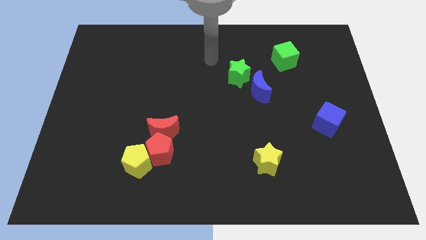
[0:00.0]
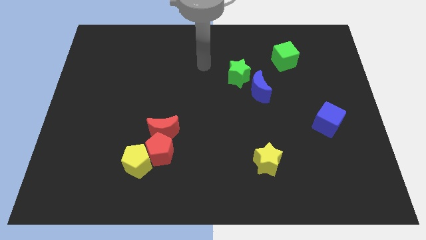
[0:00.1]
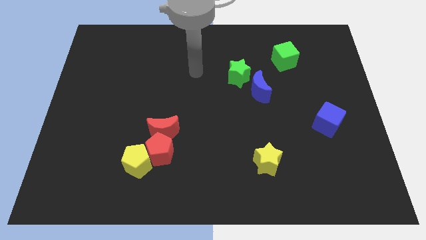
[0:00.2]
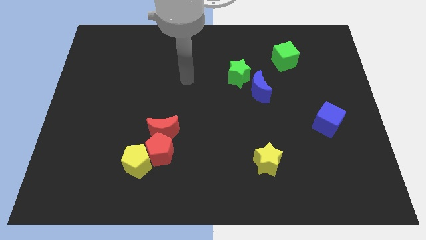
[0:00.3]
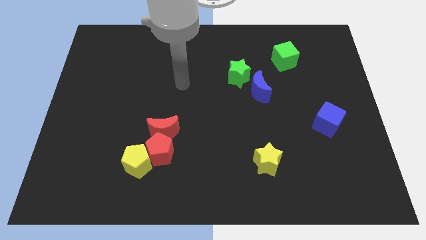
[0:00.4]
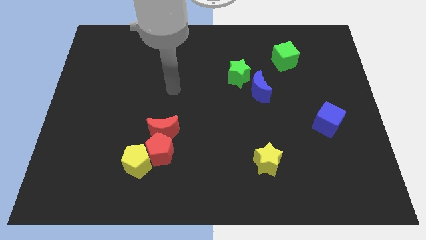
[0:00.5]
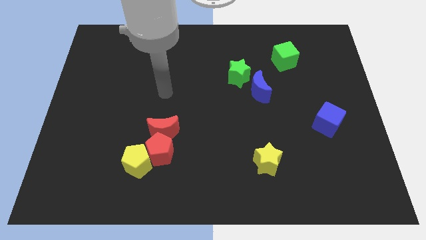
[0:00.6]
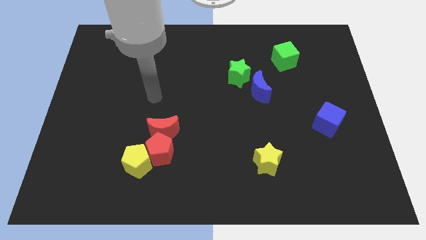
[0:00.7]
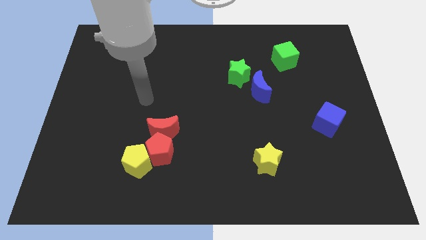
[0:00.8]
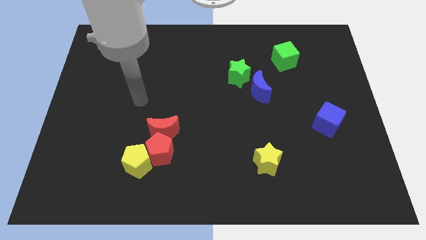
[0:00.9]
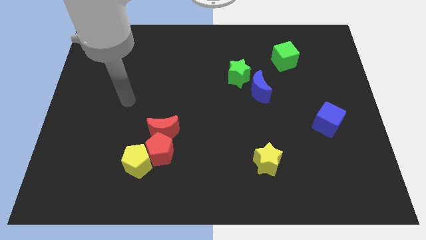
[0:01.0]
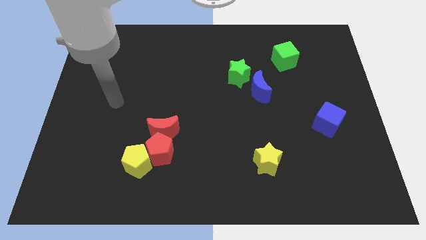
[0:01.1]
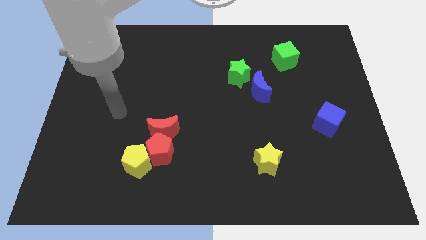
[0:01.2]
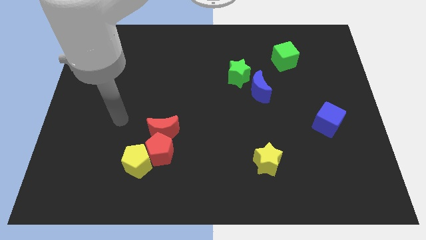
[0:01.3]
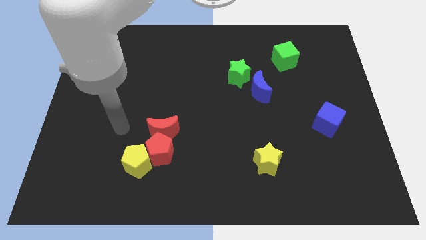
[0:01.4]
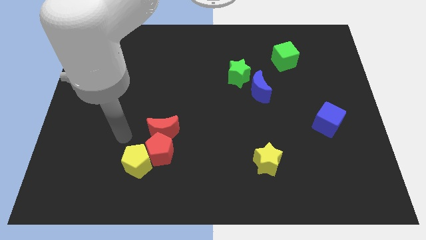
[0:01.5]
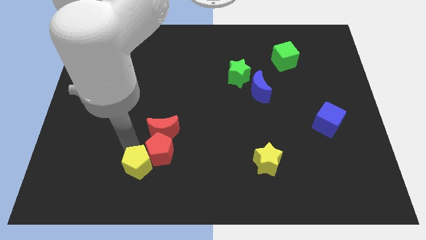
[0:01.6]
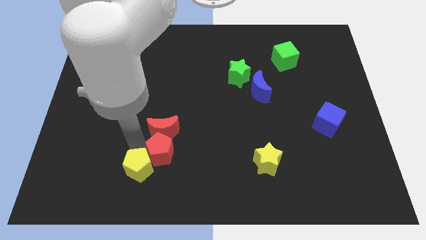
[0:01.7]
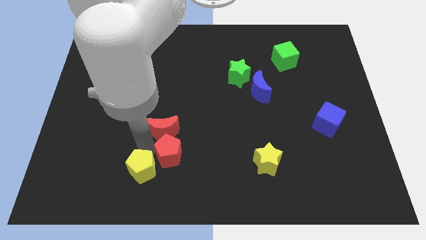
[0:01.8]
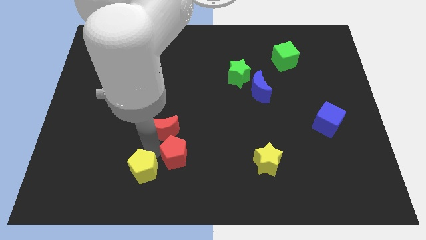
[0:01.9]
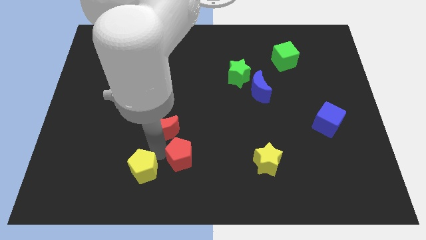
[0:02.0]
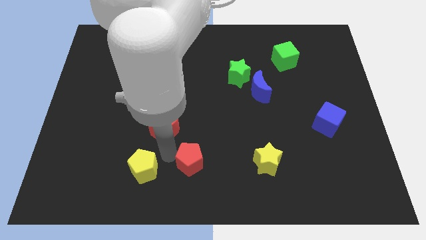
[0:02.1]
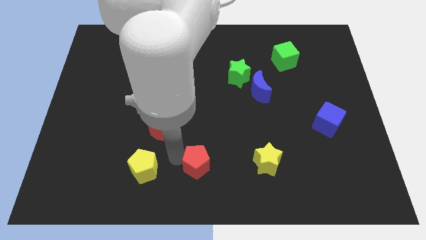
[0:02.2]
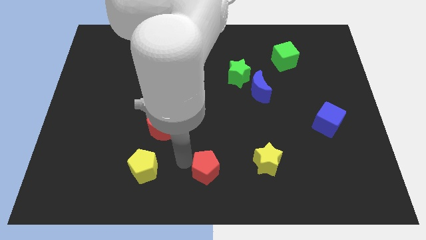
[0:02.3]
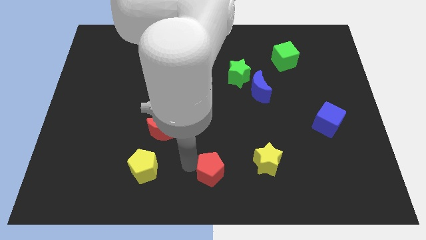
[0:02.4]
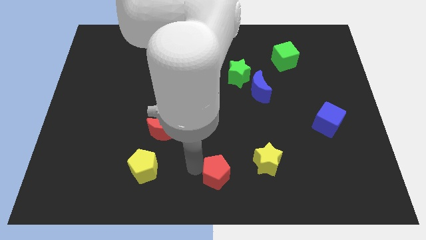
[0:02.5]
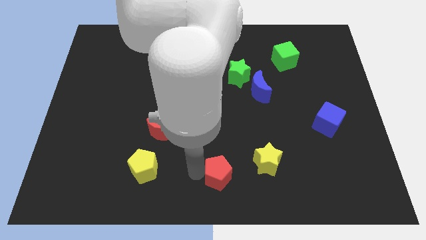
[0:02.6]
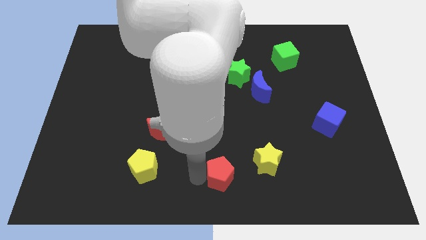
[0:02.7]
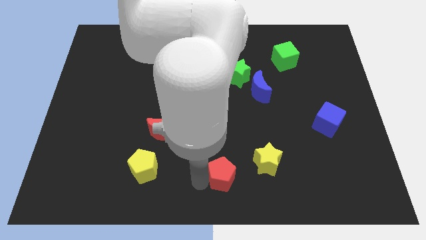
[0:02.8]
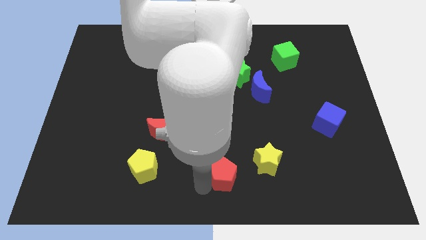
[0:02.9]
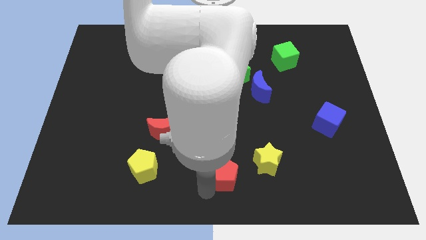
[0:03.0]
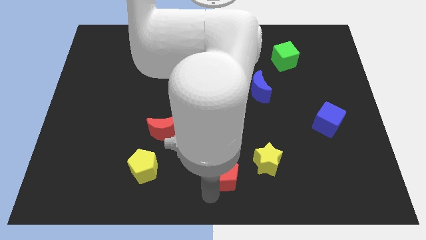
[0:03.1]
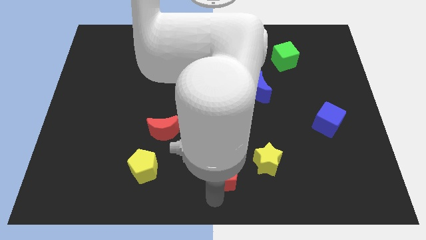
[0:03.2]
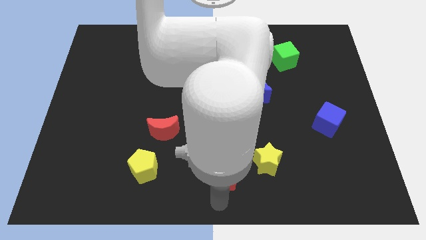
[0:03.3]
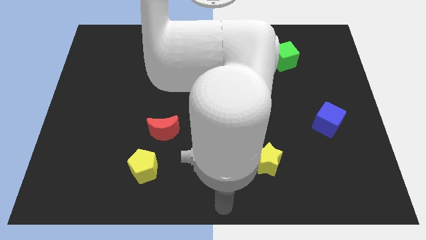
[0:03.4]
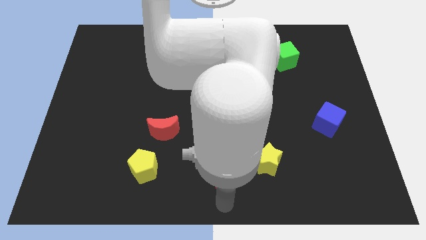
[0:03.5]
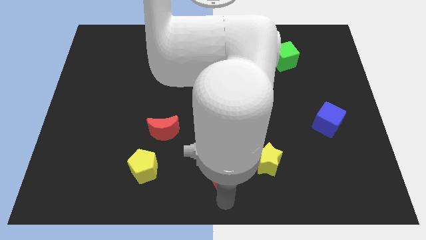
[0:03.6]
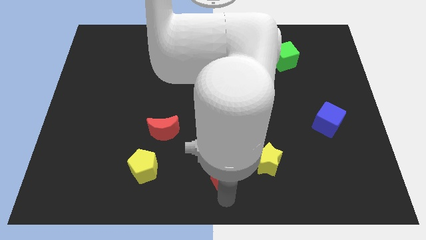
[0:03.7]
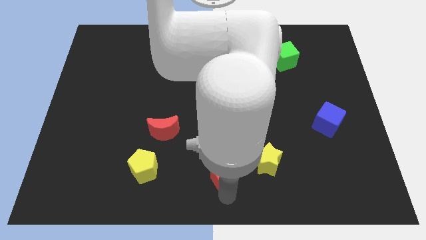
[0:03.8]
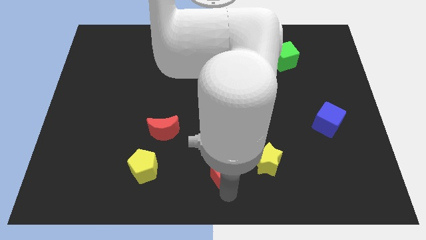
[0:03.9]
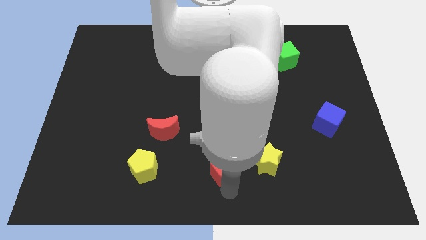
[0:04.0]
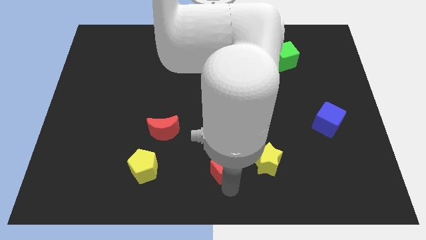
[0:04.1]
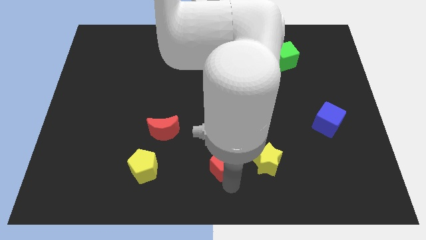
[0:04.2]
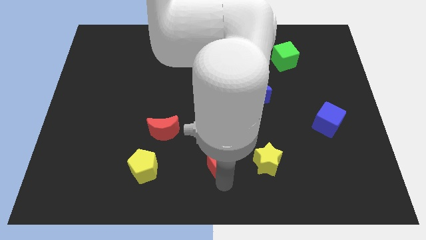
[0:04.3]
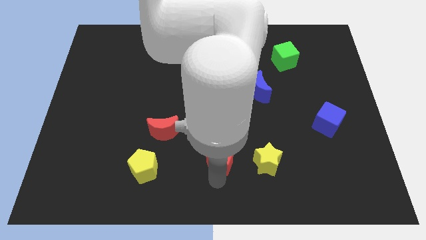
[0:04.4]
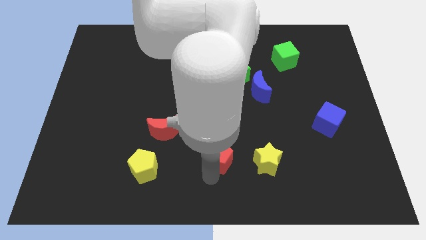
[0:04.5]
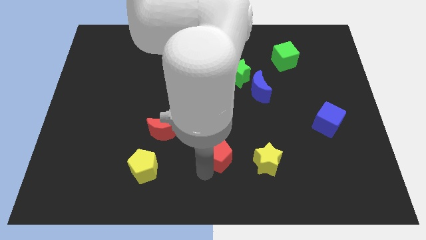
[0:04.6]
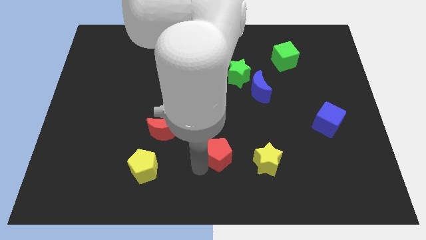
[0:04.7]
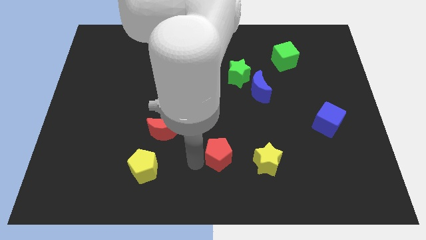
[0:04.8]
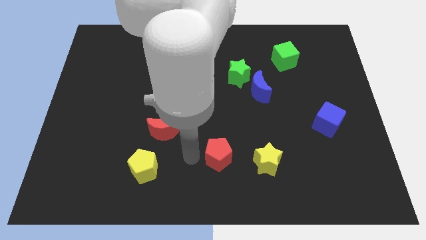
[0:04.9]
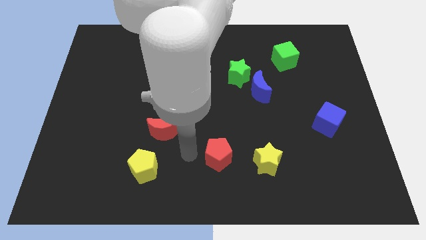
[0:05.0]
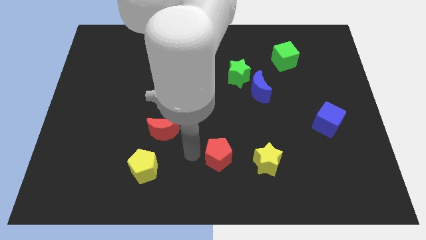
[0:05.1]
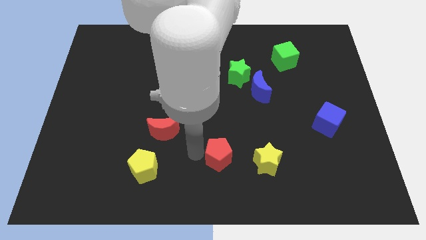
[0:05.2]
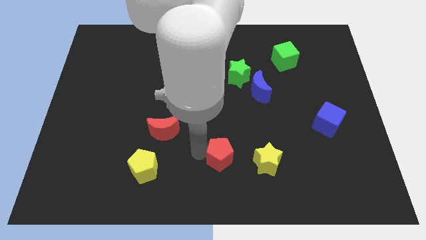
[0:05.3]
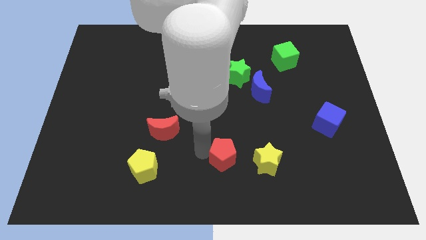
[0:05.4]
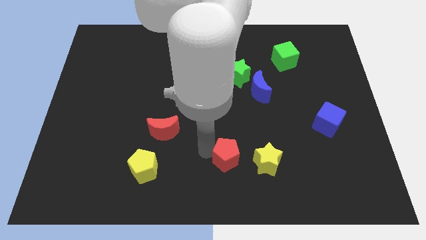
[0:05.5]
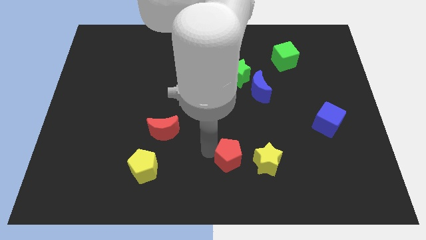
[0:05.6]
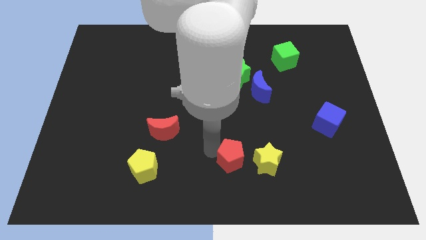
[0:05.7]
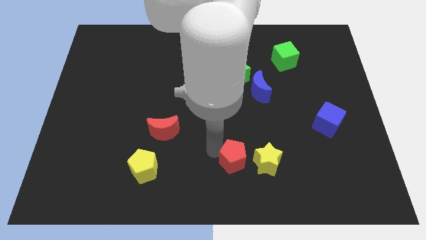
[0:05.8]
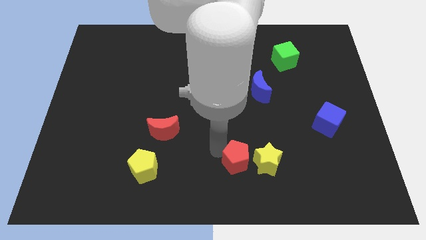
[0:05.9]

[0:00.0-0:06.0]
put the red pentagon towards the yellow star
